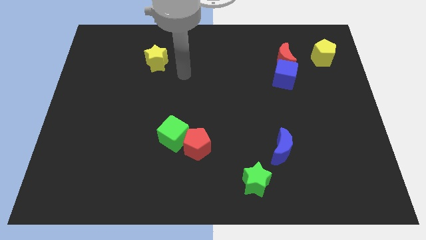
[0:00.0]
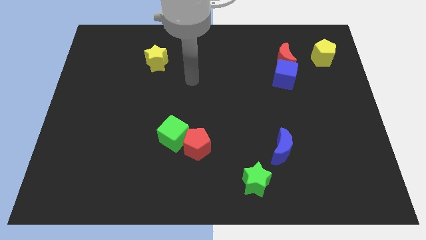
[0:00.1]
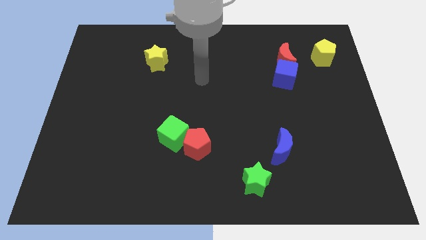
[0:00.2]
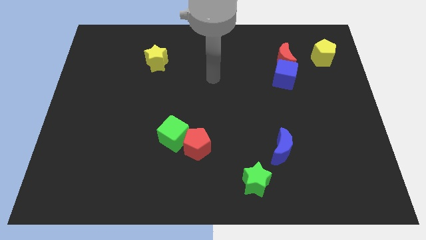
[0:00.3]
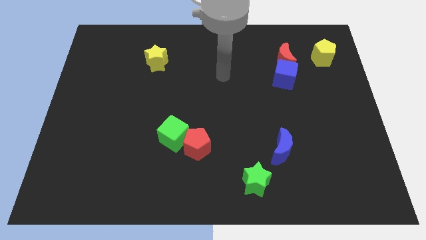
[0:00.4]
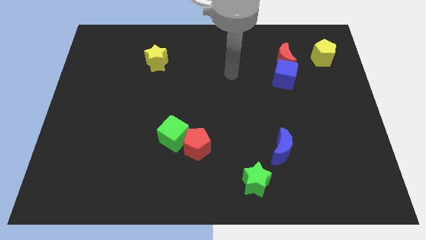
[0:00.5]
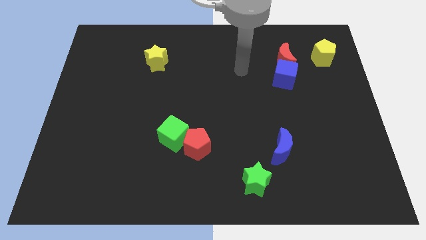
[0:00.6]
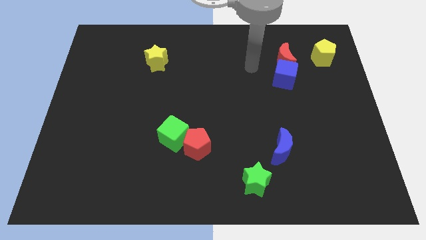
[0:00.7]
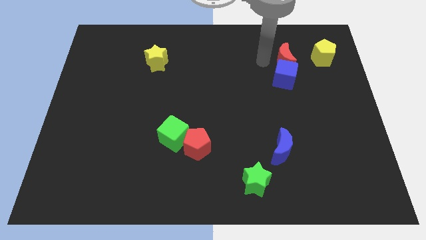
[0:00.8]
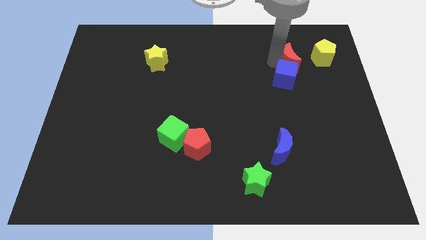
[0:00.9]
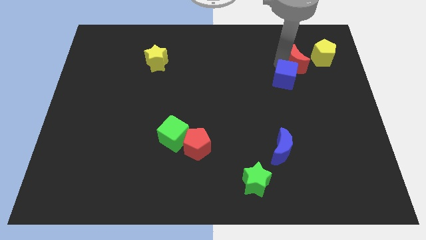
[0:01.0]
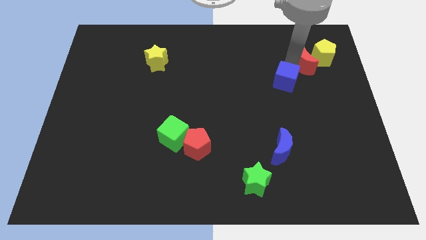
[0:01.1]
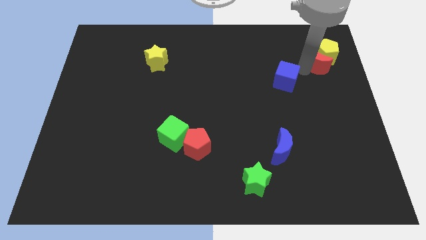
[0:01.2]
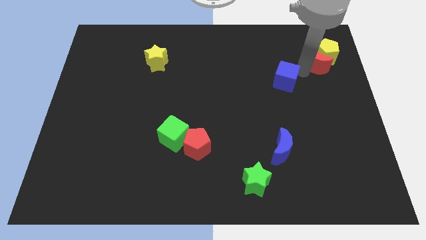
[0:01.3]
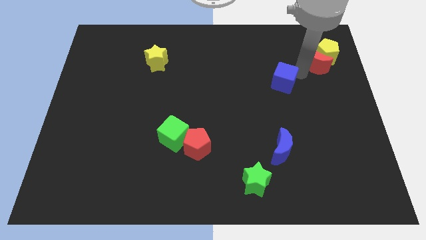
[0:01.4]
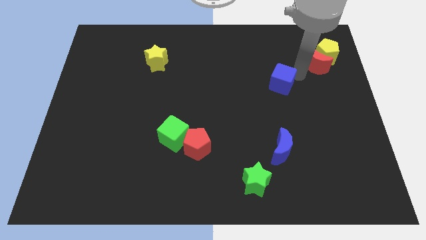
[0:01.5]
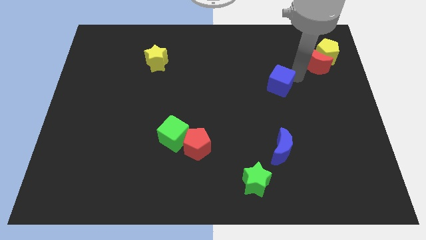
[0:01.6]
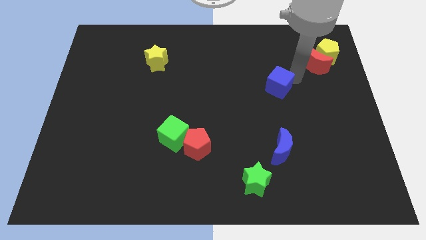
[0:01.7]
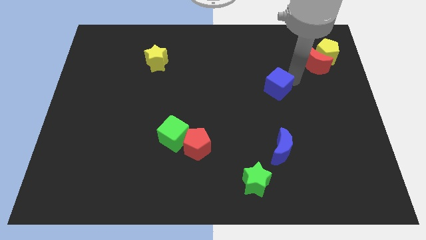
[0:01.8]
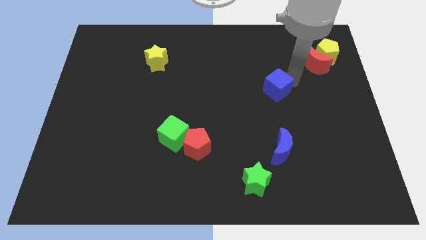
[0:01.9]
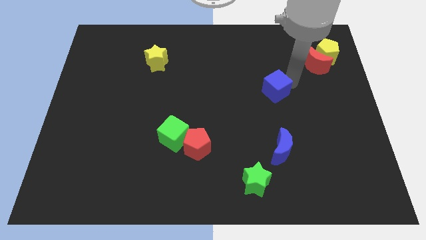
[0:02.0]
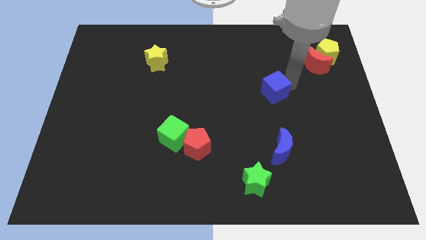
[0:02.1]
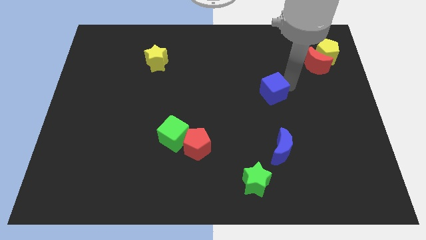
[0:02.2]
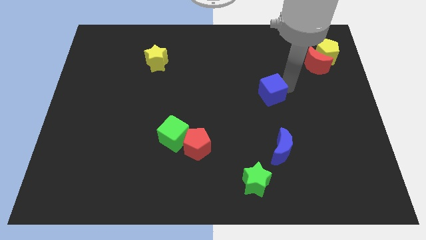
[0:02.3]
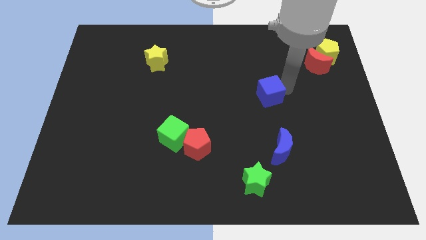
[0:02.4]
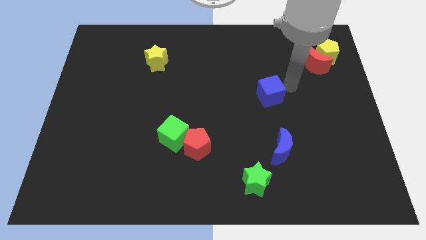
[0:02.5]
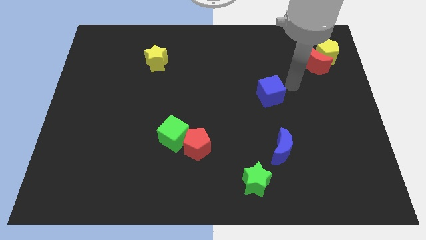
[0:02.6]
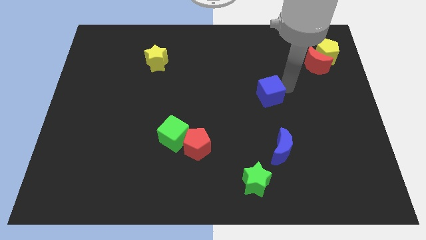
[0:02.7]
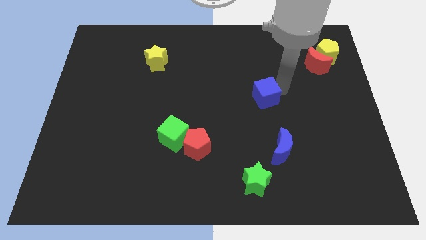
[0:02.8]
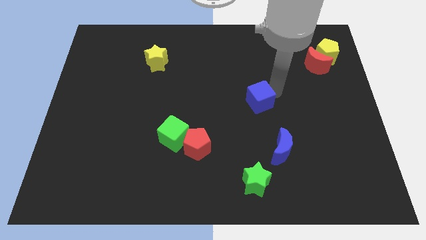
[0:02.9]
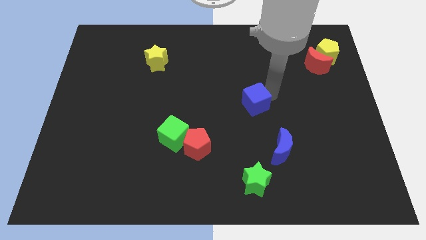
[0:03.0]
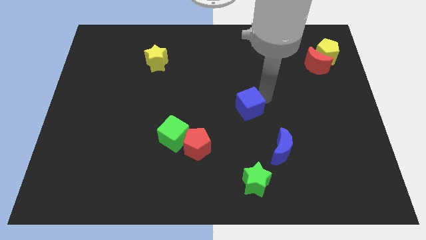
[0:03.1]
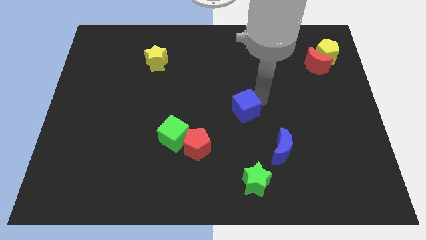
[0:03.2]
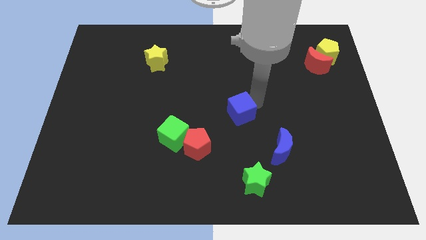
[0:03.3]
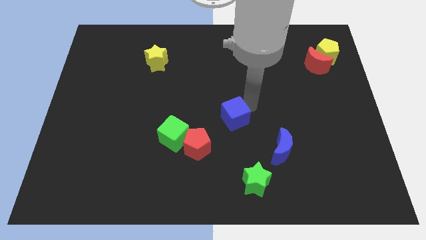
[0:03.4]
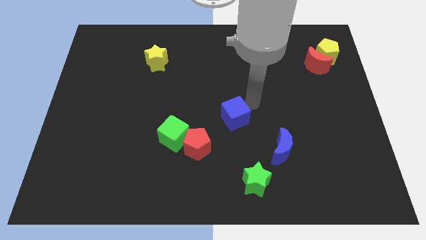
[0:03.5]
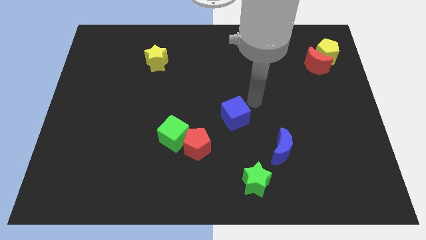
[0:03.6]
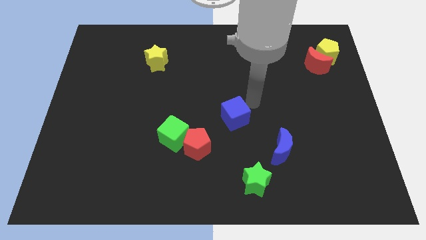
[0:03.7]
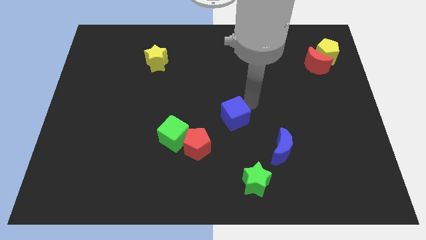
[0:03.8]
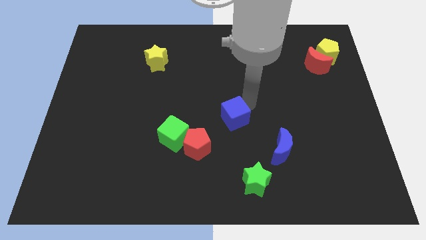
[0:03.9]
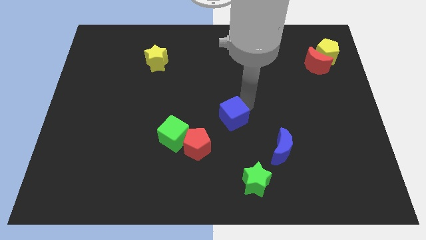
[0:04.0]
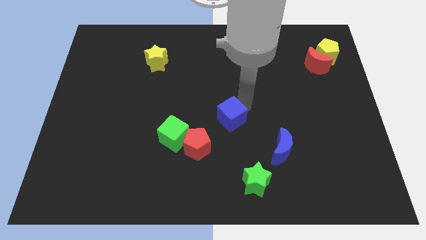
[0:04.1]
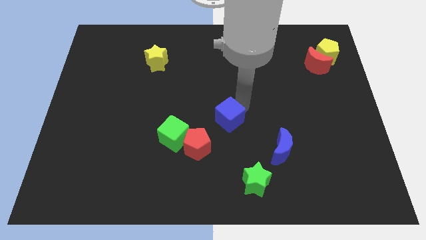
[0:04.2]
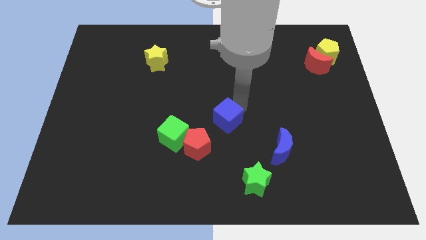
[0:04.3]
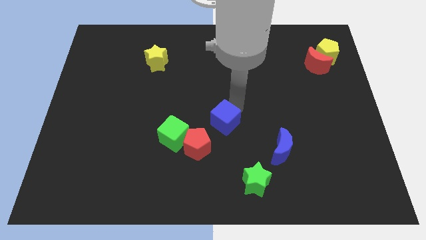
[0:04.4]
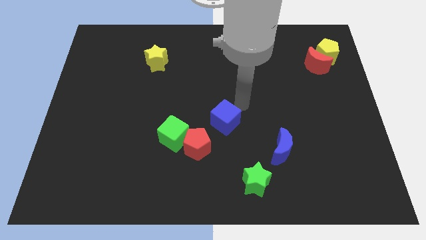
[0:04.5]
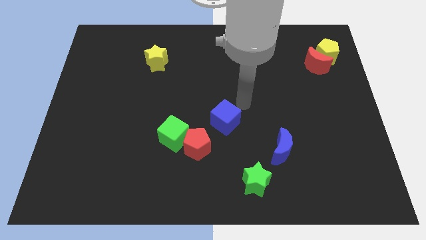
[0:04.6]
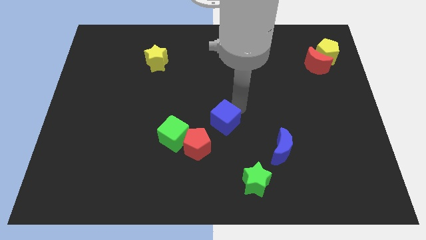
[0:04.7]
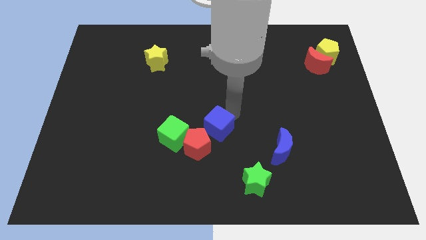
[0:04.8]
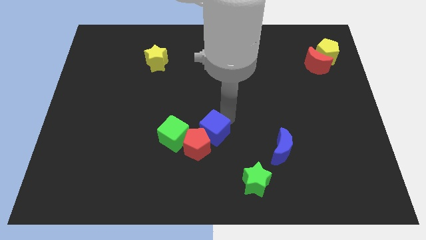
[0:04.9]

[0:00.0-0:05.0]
push the blue cube towards the red pentagon

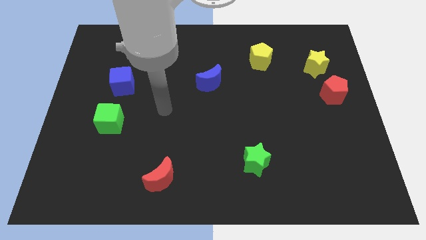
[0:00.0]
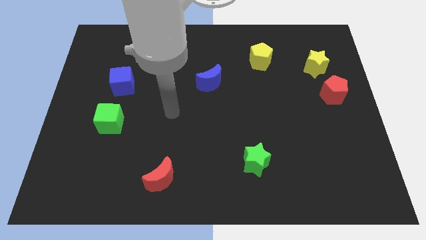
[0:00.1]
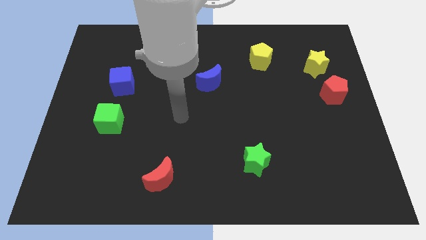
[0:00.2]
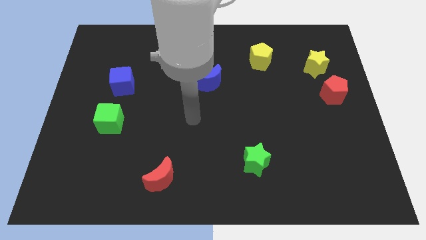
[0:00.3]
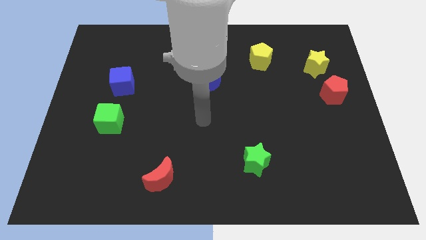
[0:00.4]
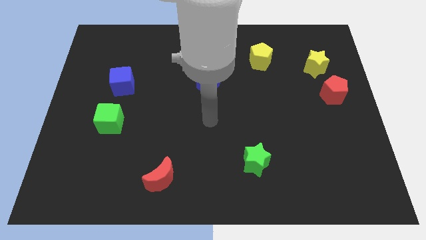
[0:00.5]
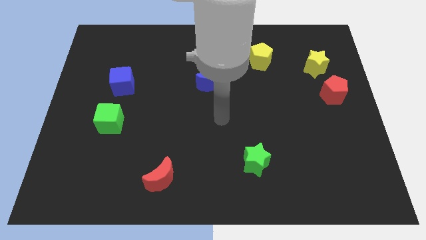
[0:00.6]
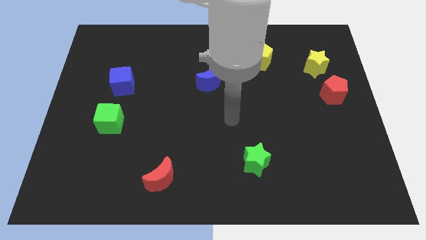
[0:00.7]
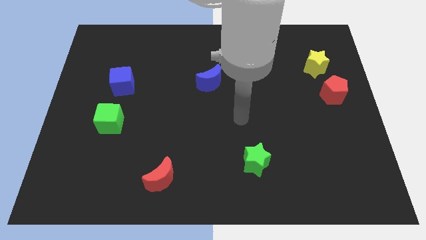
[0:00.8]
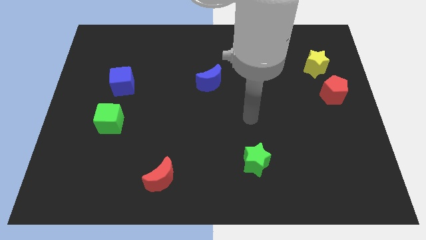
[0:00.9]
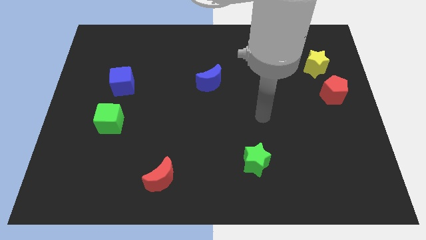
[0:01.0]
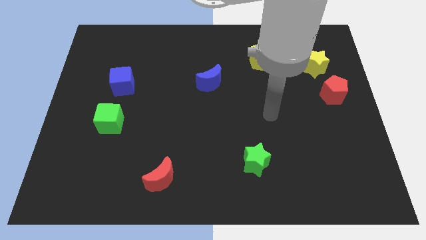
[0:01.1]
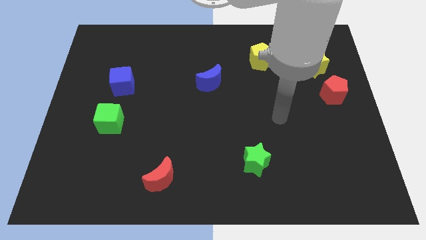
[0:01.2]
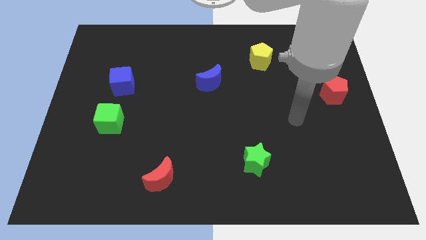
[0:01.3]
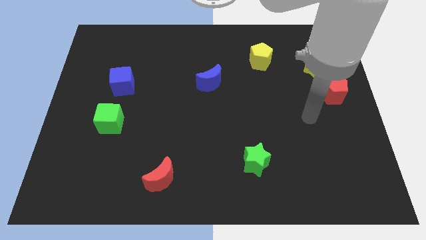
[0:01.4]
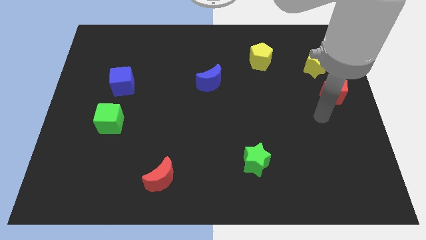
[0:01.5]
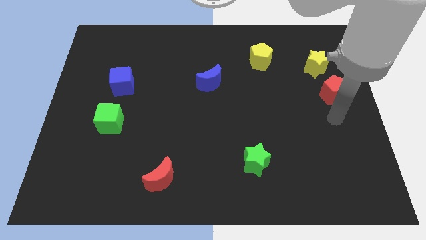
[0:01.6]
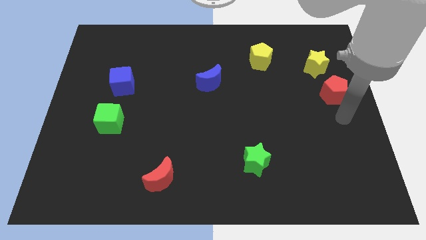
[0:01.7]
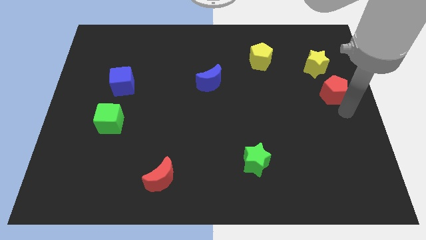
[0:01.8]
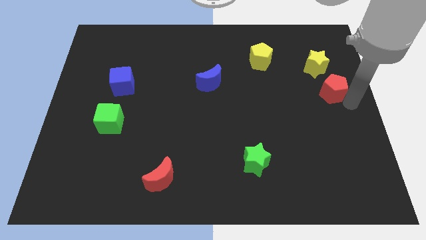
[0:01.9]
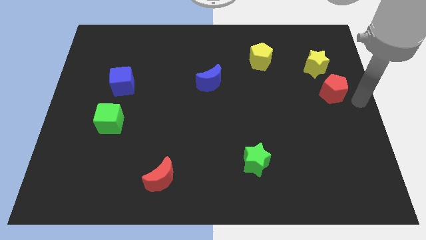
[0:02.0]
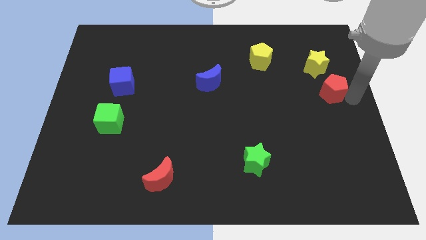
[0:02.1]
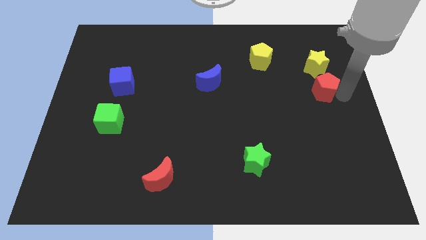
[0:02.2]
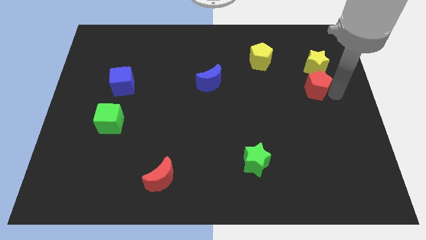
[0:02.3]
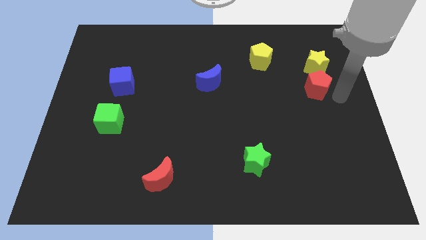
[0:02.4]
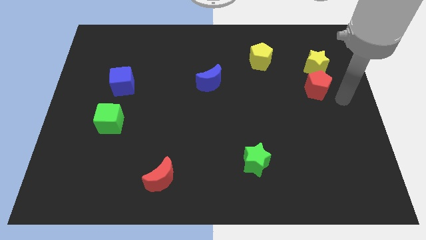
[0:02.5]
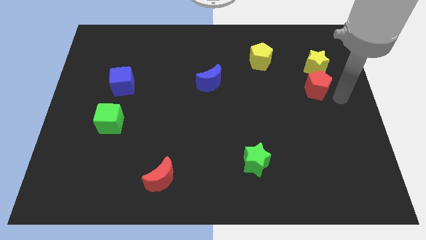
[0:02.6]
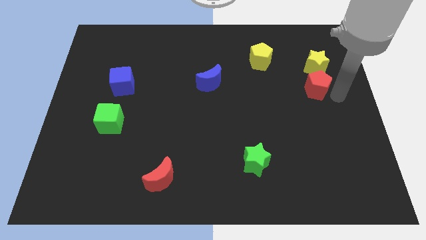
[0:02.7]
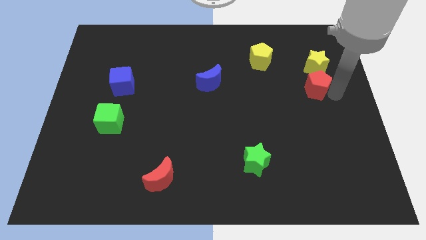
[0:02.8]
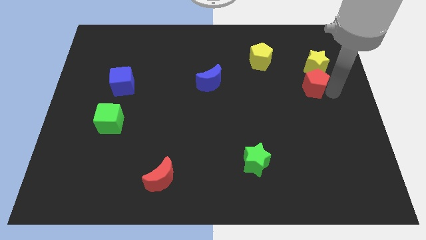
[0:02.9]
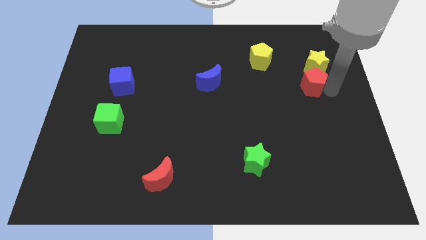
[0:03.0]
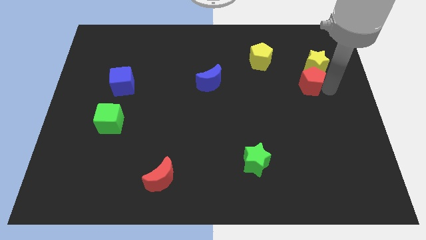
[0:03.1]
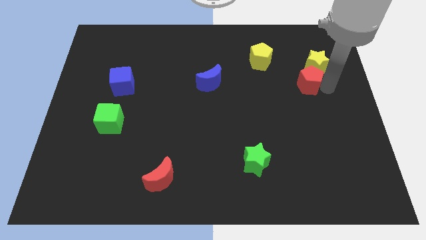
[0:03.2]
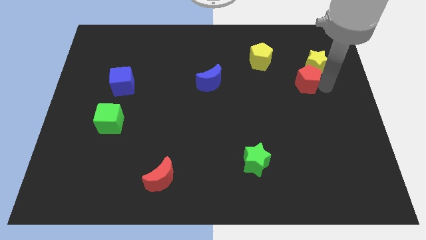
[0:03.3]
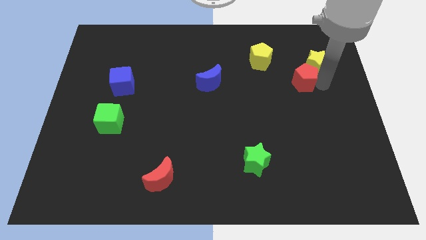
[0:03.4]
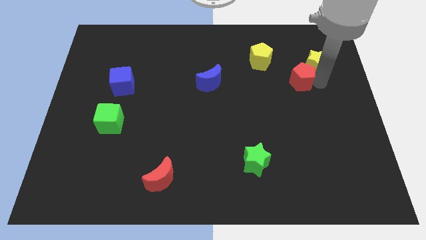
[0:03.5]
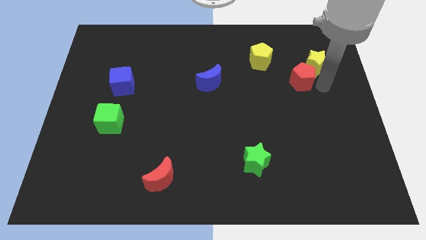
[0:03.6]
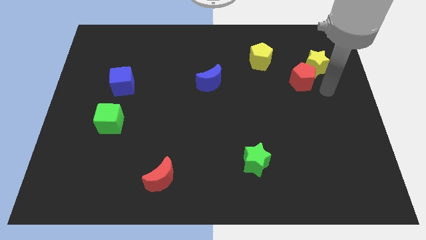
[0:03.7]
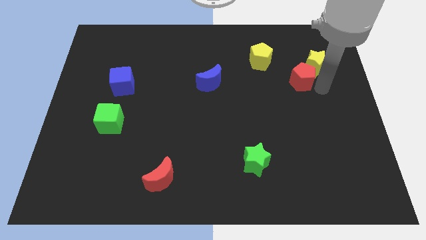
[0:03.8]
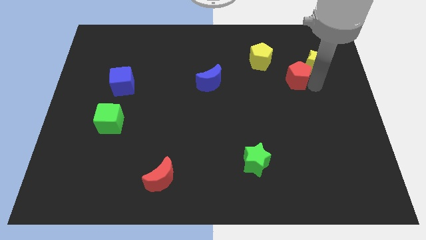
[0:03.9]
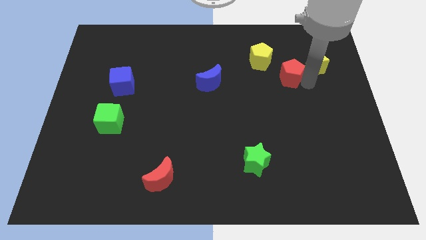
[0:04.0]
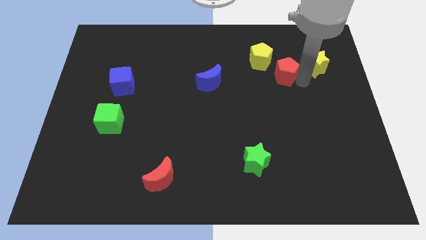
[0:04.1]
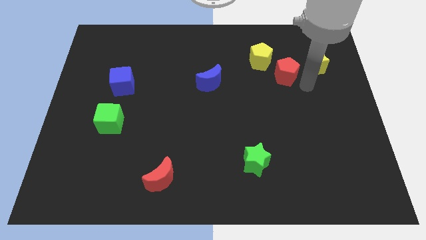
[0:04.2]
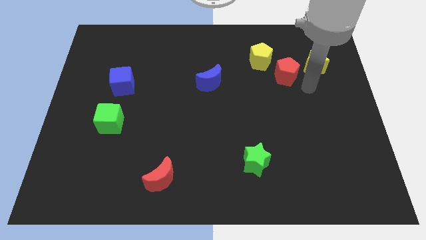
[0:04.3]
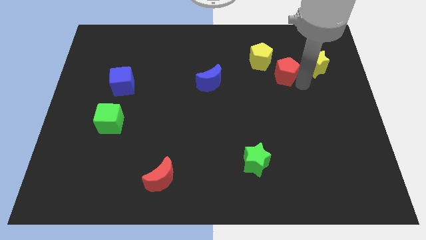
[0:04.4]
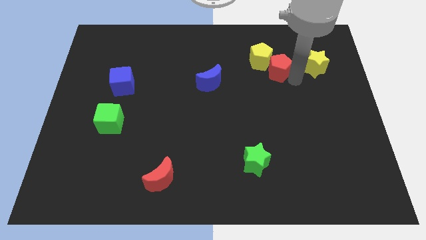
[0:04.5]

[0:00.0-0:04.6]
slide the red pentagon towards the yellow pentagon
